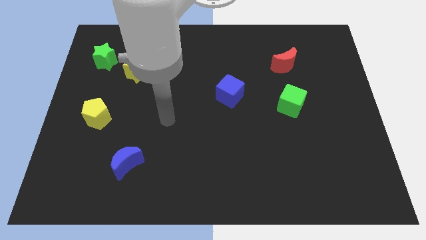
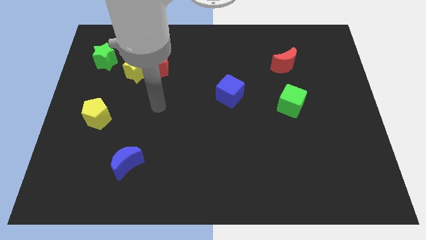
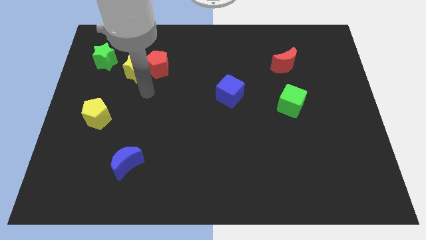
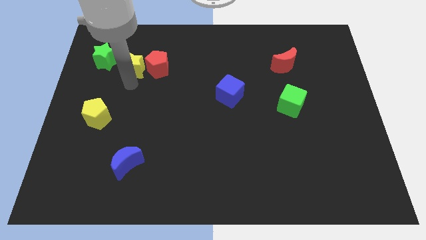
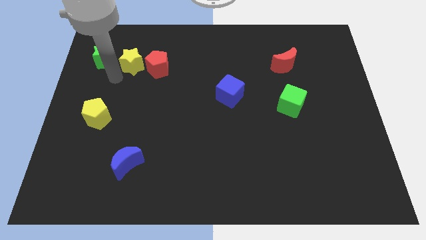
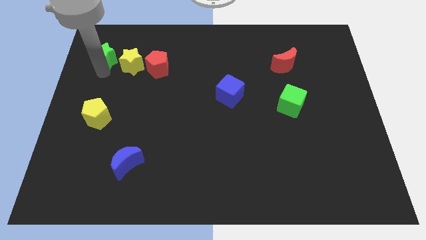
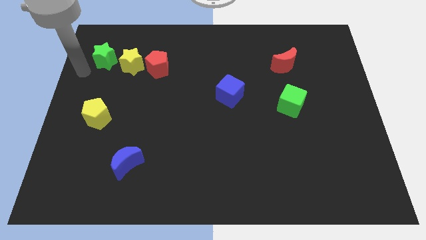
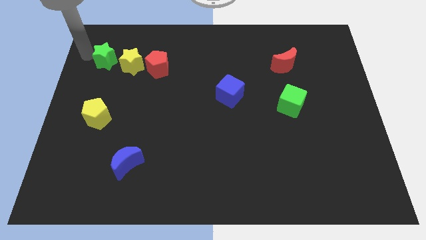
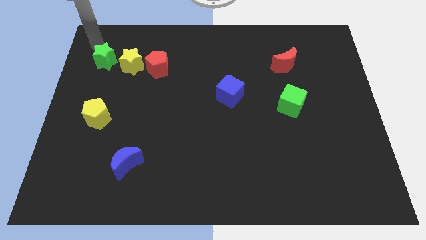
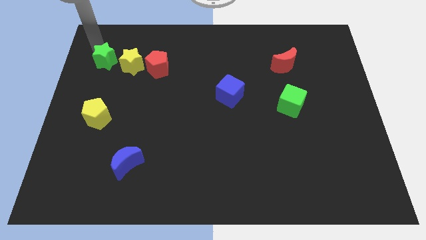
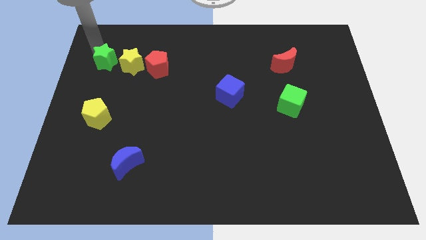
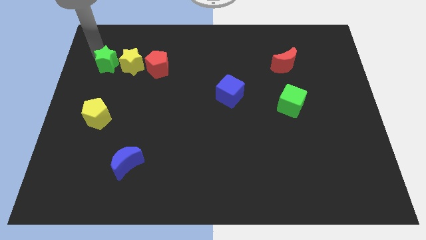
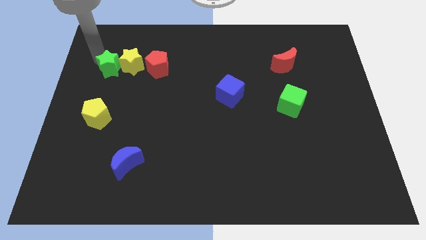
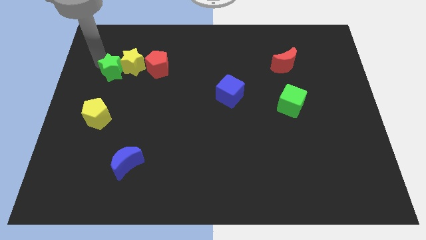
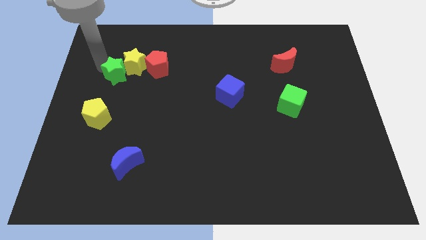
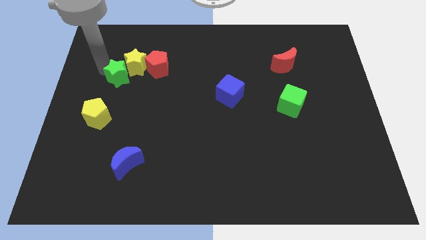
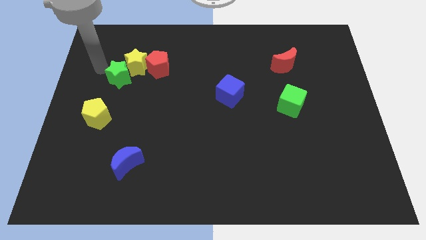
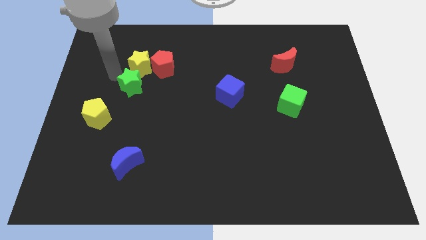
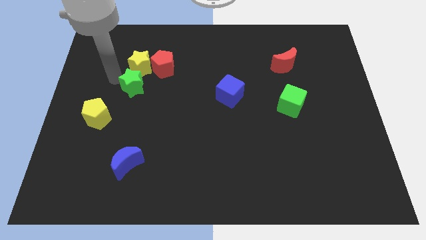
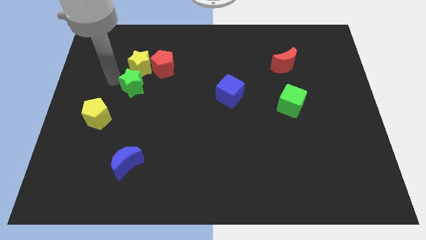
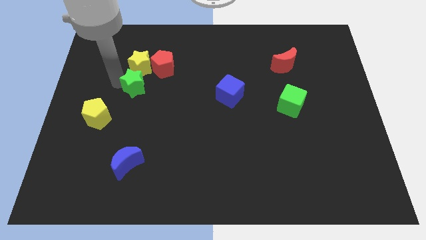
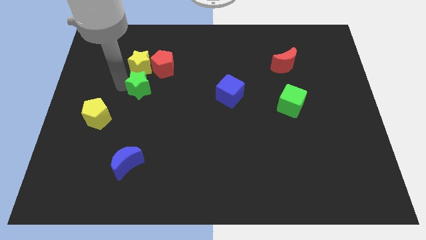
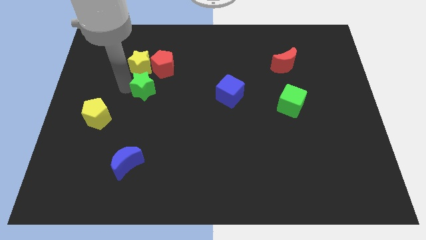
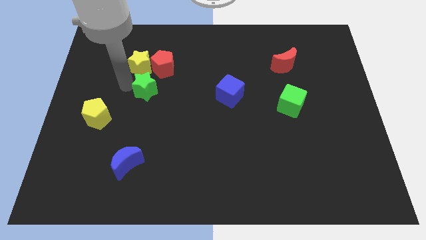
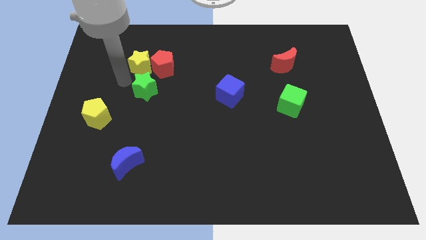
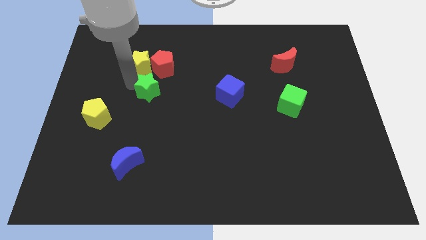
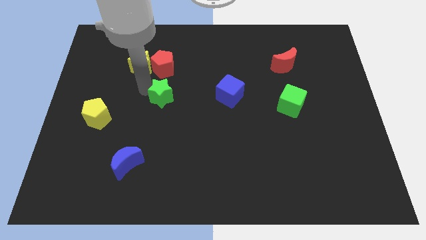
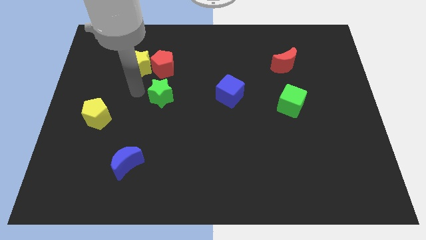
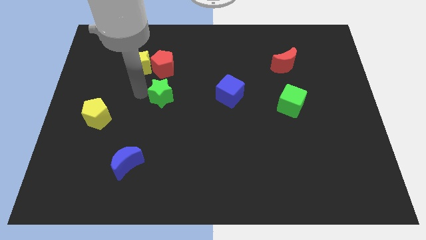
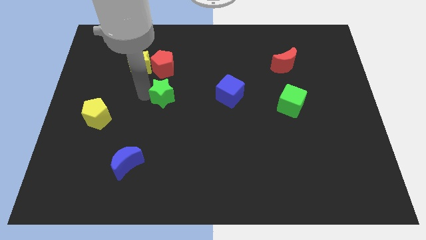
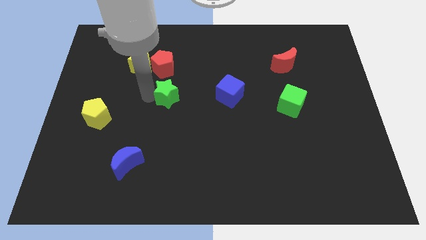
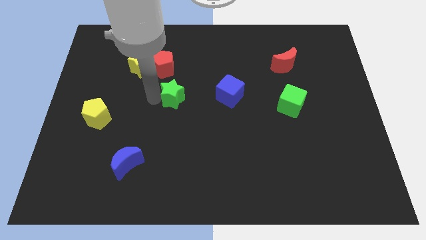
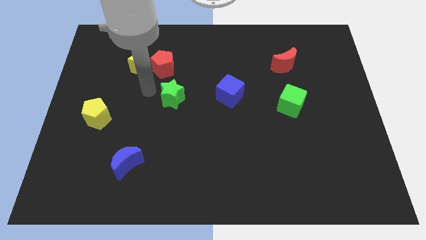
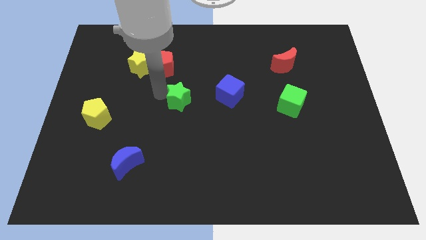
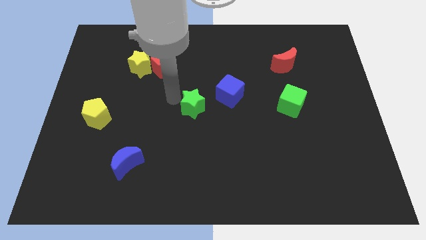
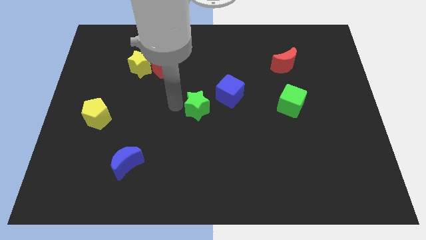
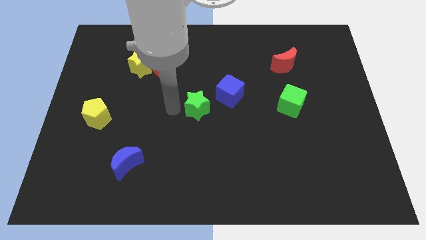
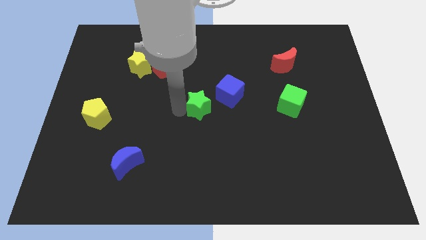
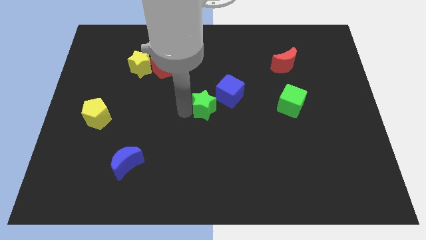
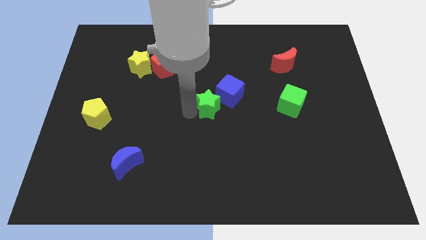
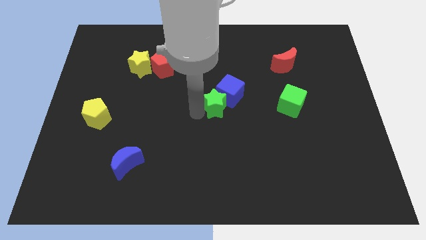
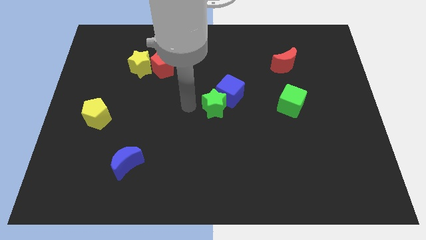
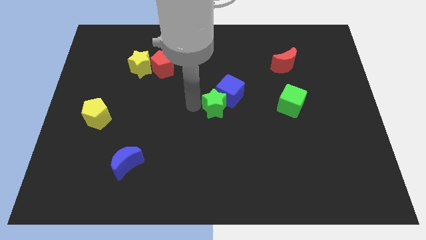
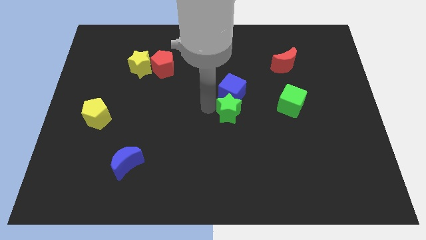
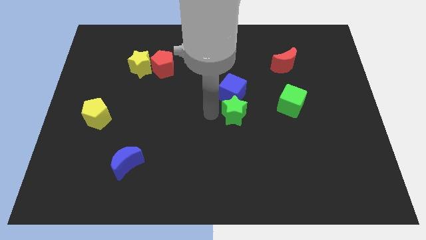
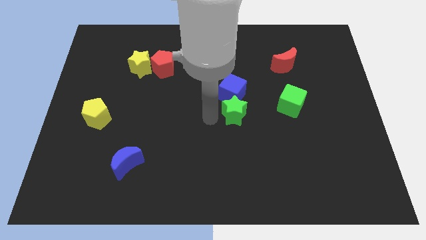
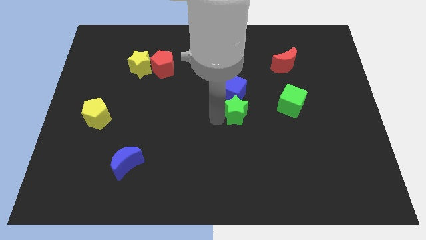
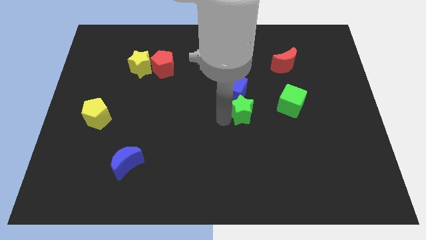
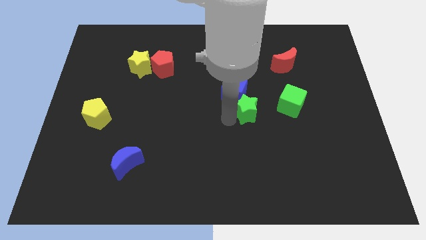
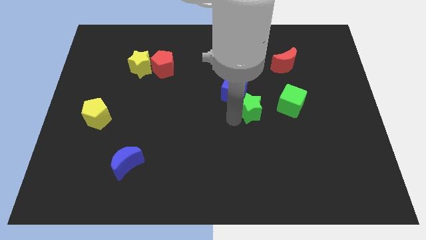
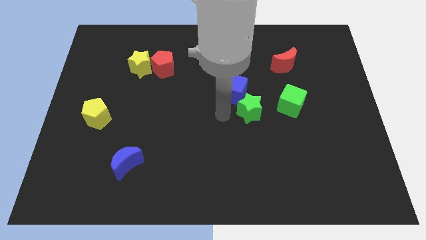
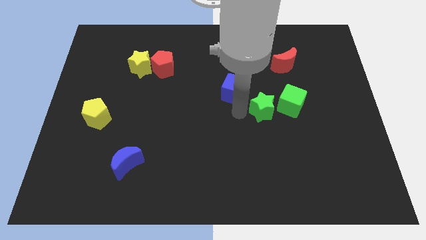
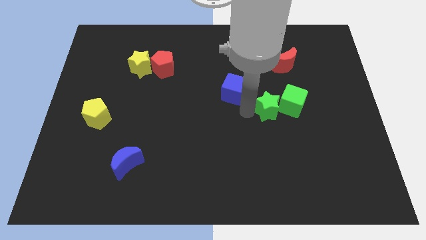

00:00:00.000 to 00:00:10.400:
push the green star to the green cube

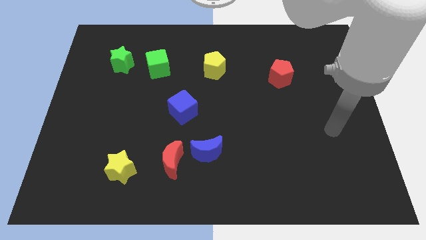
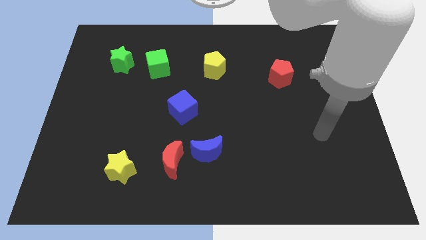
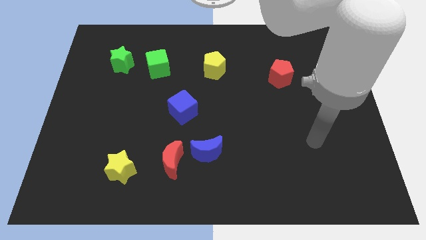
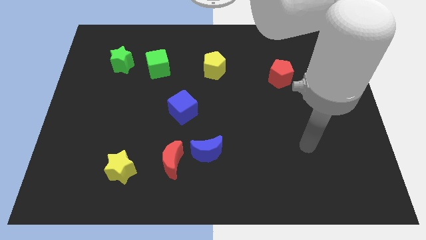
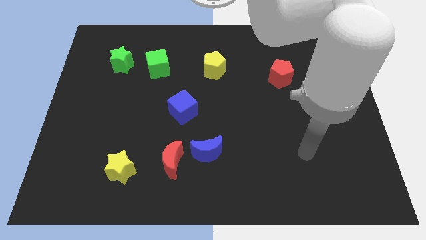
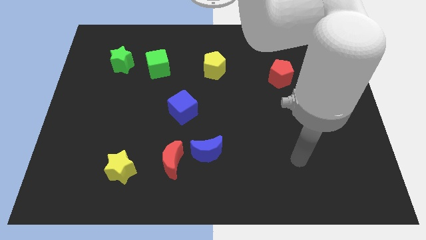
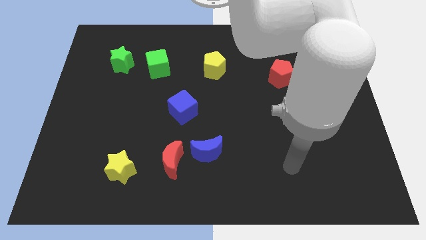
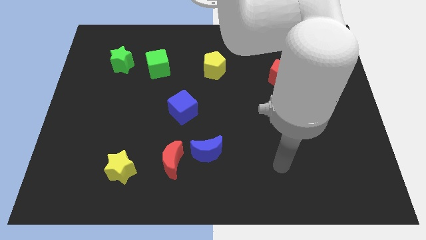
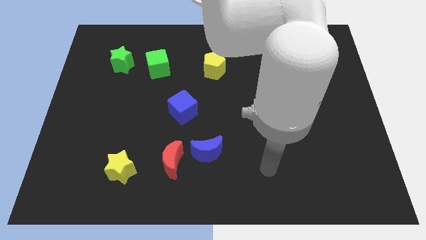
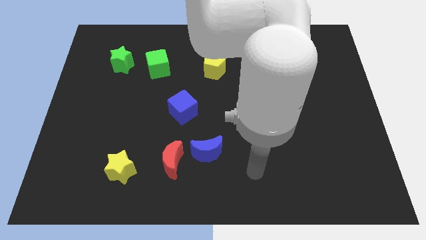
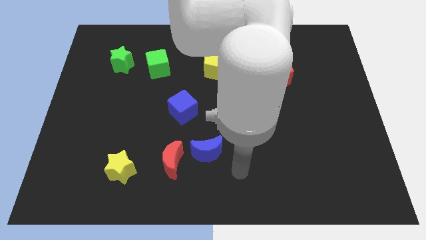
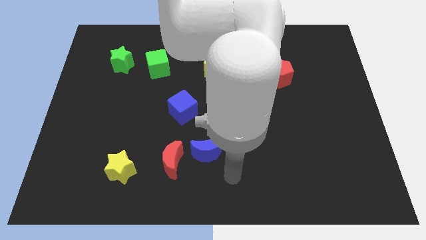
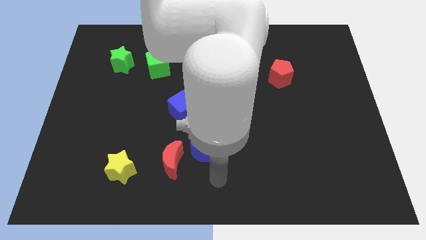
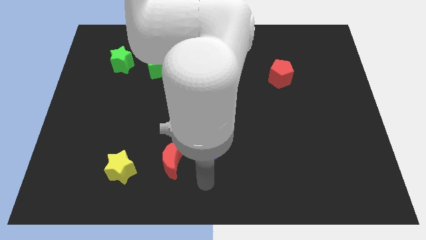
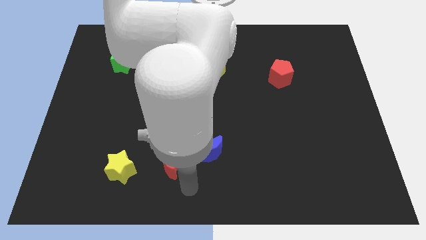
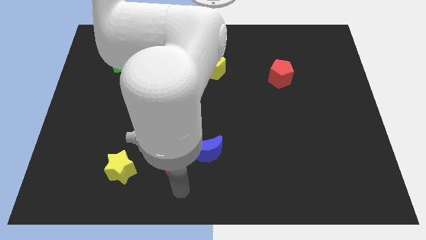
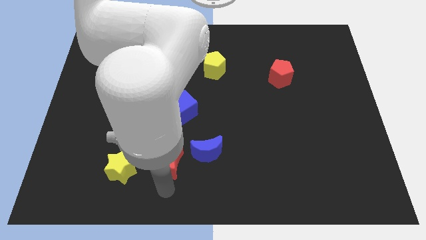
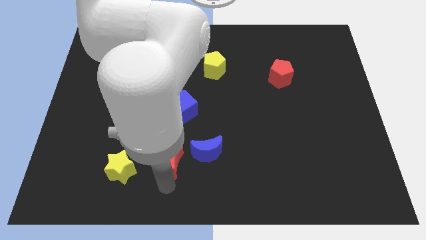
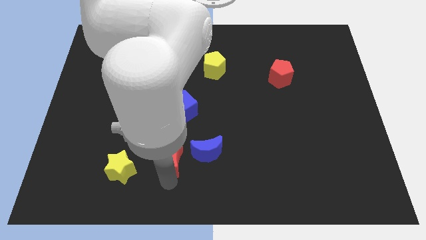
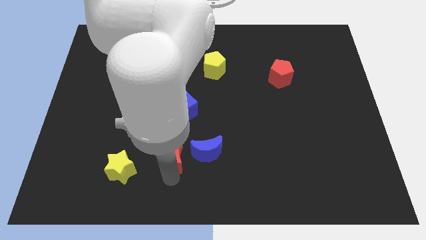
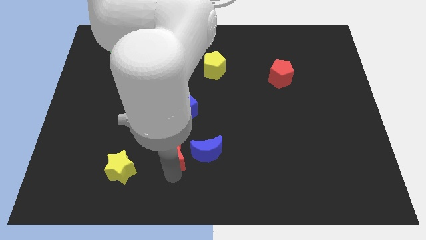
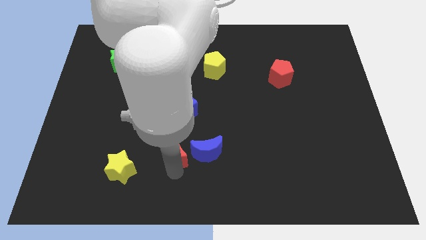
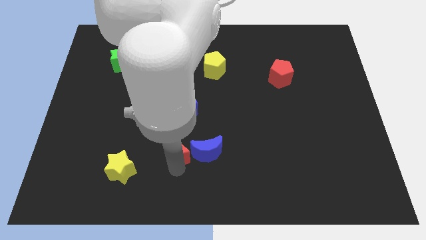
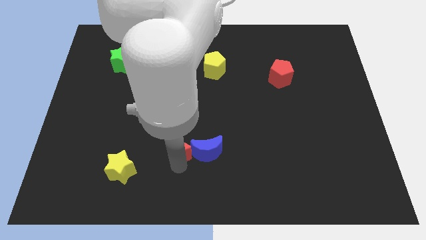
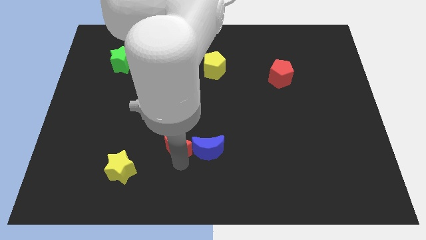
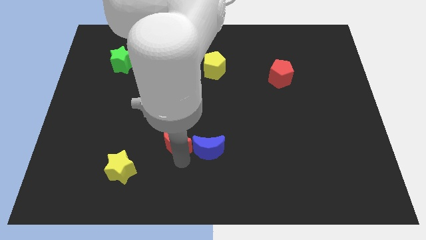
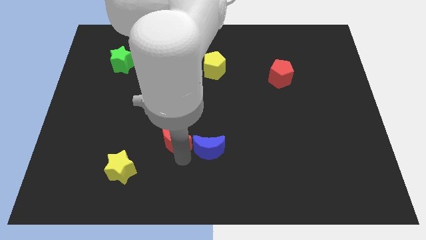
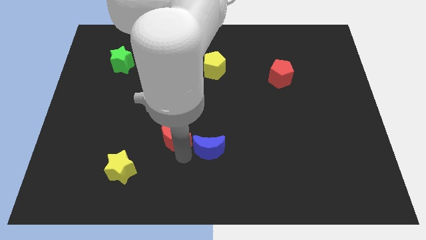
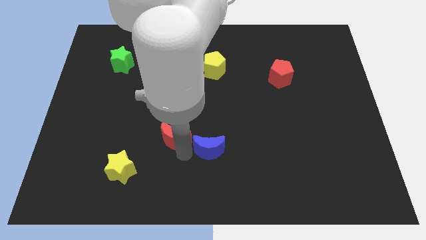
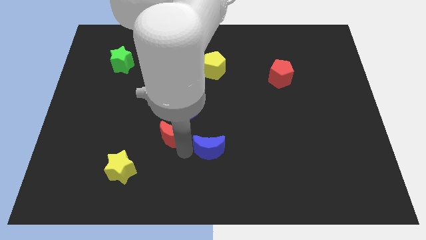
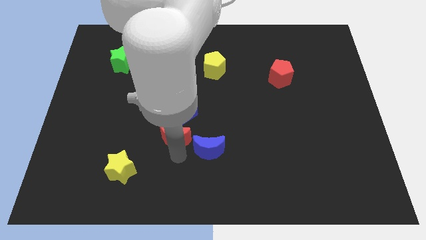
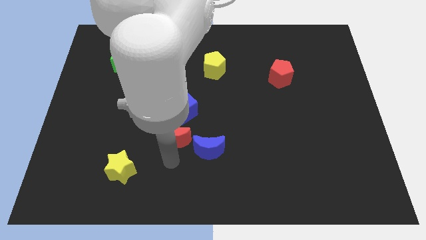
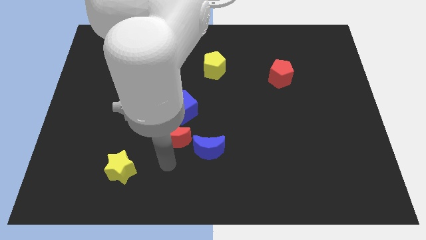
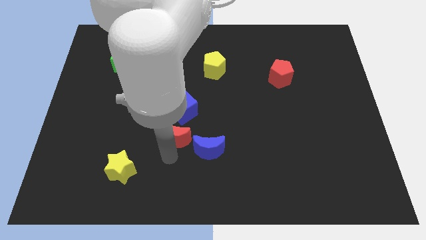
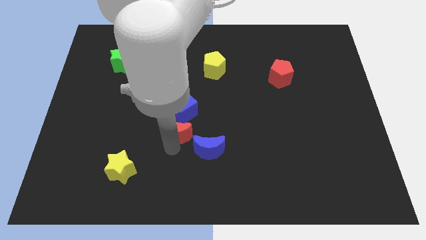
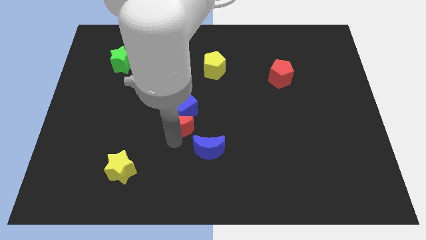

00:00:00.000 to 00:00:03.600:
move the red moon close to the blue cube
